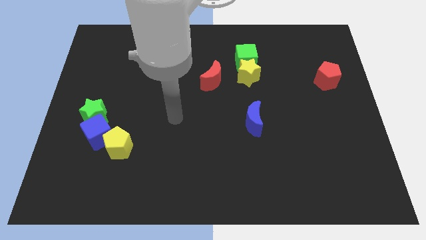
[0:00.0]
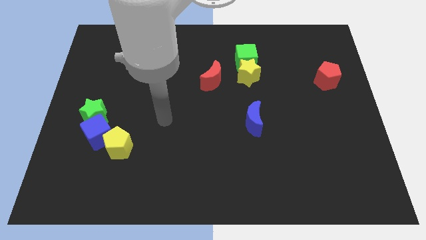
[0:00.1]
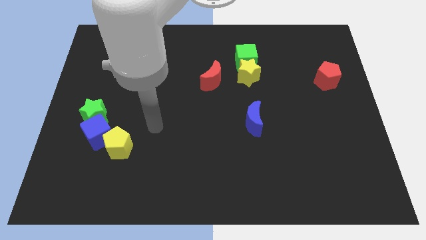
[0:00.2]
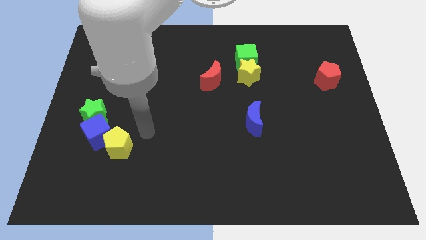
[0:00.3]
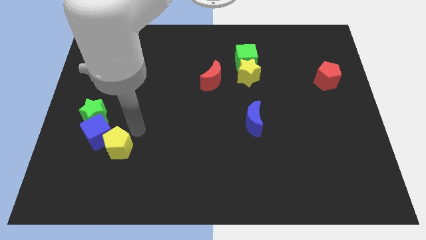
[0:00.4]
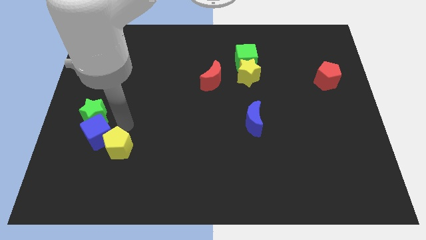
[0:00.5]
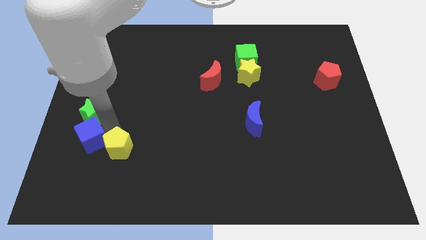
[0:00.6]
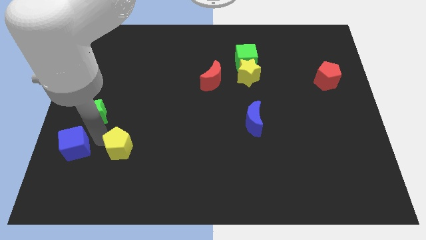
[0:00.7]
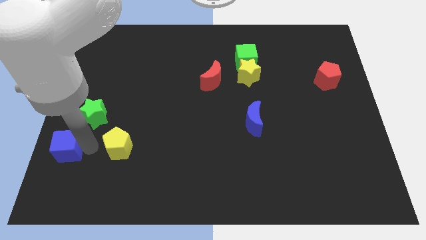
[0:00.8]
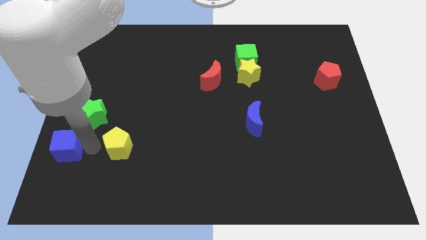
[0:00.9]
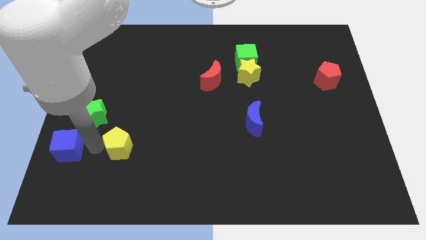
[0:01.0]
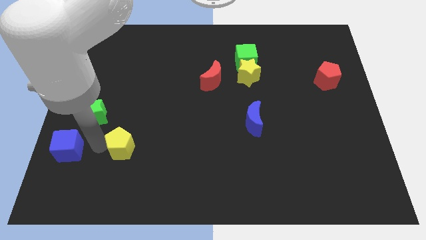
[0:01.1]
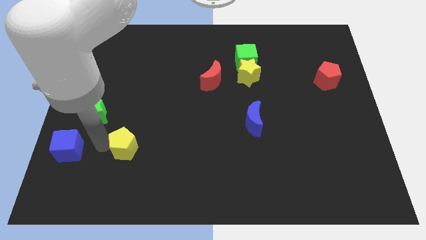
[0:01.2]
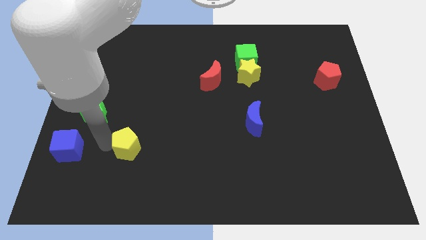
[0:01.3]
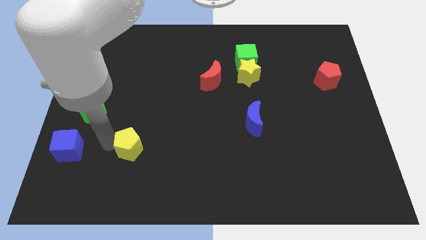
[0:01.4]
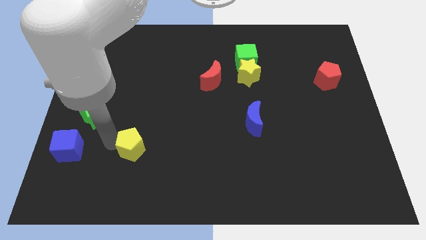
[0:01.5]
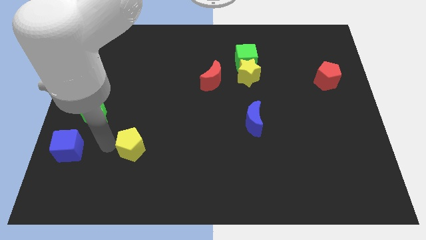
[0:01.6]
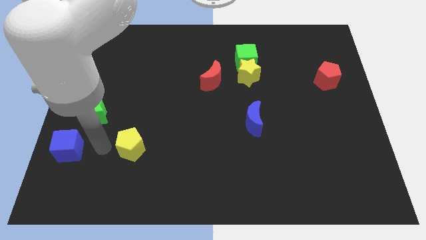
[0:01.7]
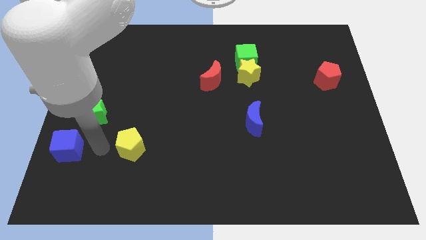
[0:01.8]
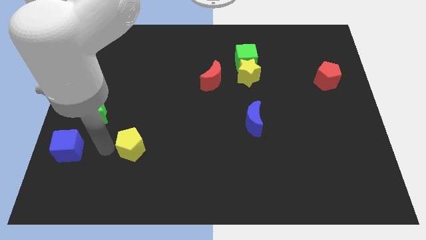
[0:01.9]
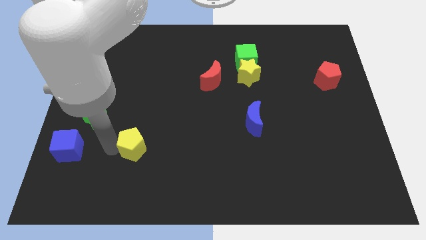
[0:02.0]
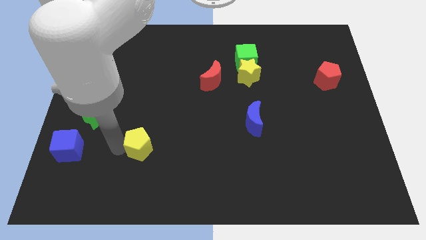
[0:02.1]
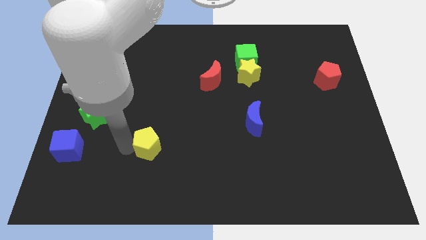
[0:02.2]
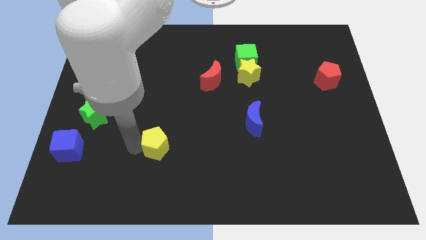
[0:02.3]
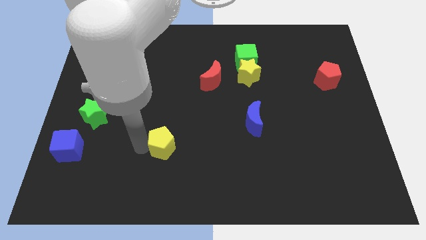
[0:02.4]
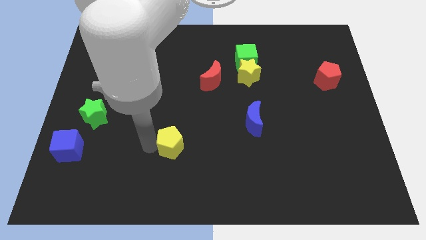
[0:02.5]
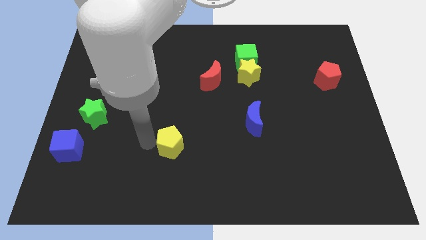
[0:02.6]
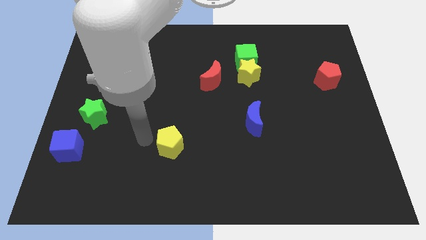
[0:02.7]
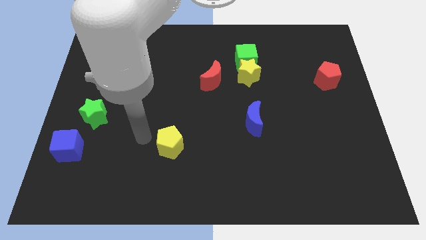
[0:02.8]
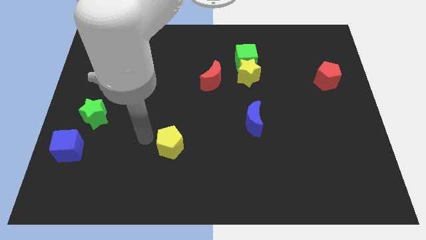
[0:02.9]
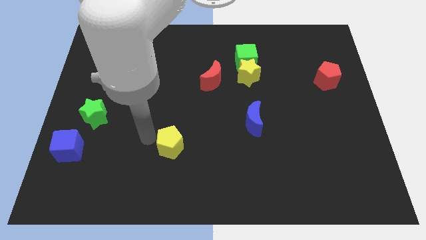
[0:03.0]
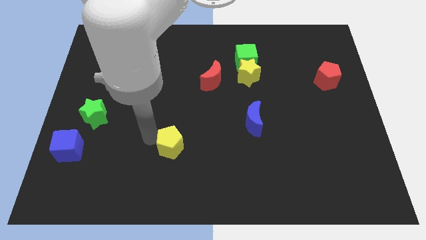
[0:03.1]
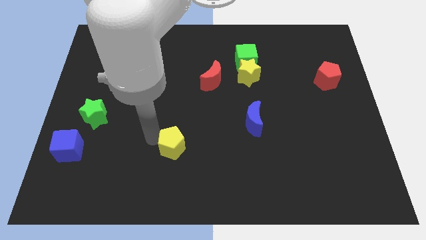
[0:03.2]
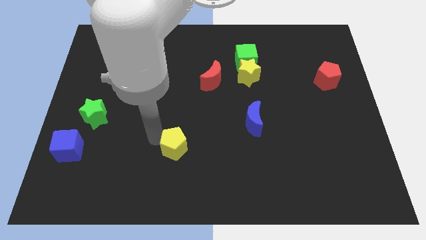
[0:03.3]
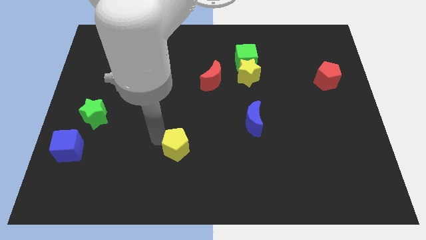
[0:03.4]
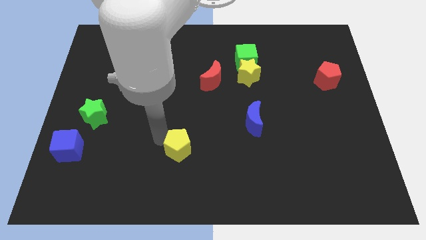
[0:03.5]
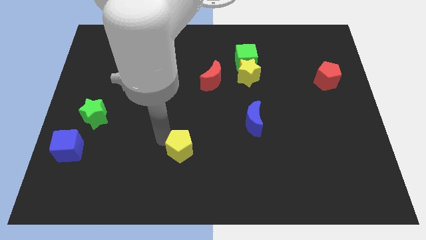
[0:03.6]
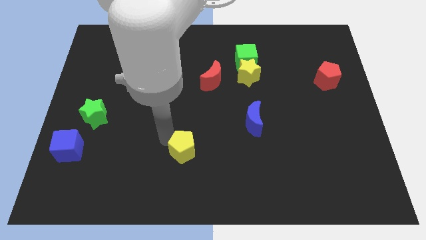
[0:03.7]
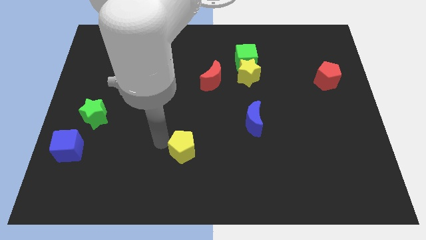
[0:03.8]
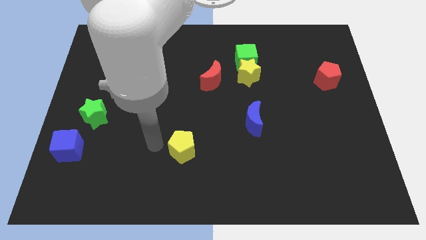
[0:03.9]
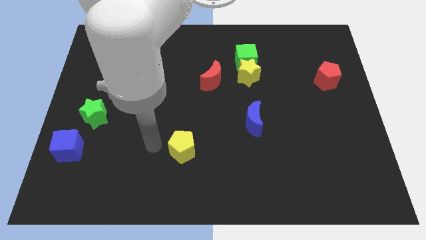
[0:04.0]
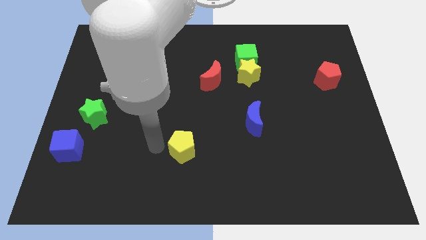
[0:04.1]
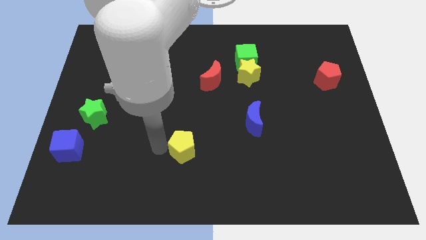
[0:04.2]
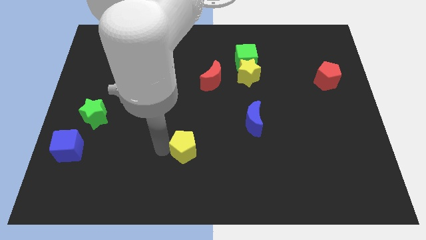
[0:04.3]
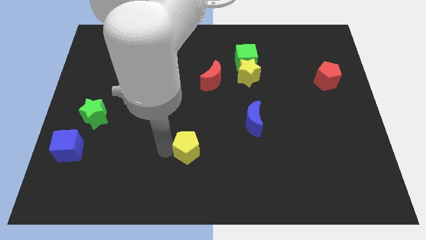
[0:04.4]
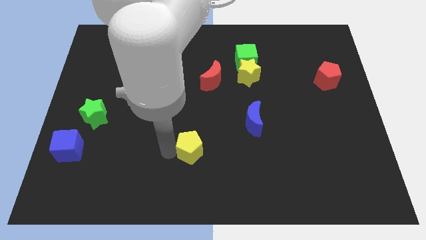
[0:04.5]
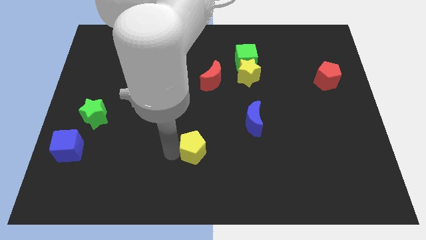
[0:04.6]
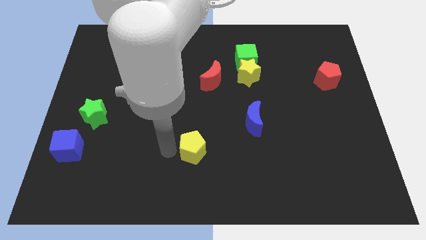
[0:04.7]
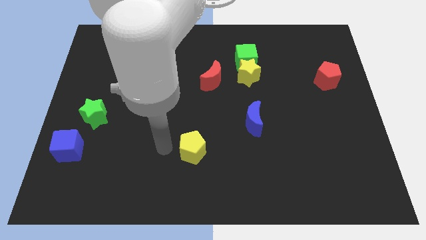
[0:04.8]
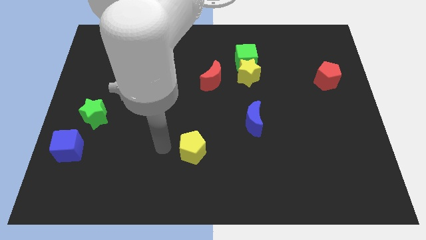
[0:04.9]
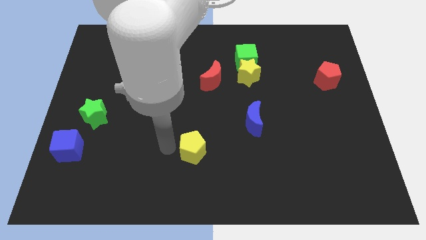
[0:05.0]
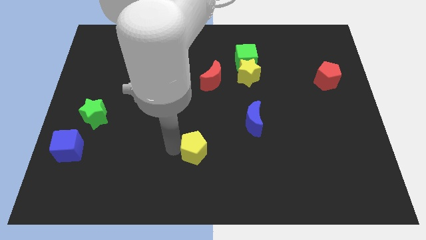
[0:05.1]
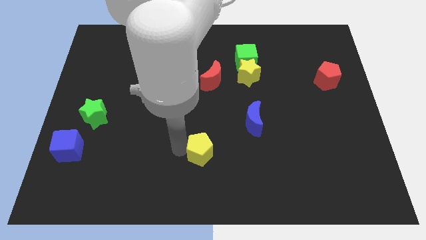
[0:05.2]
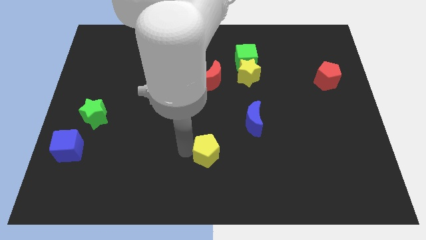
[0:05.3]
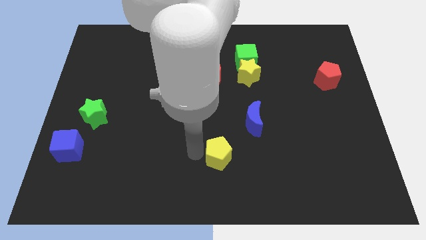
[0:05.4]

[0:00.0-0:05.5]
move the yellow pentagon right

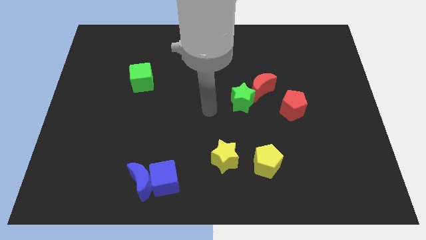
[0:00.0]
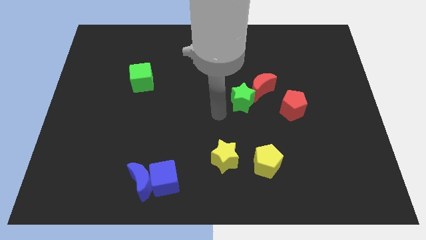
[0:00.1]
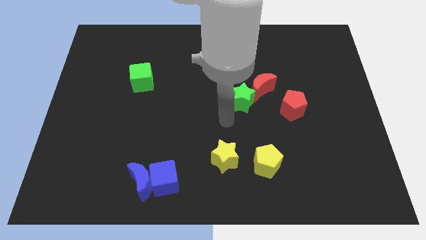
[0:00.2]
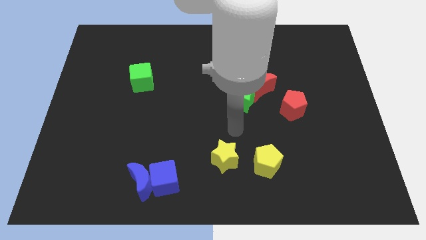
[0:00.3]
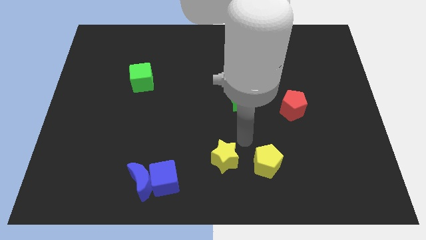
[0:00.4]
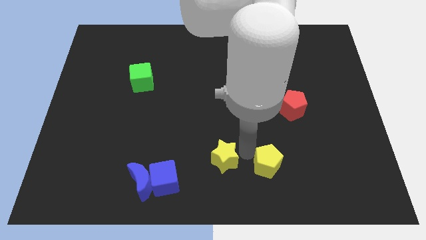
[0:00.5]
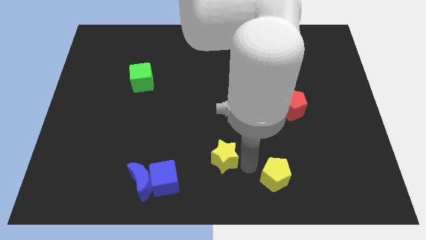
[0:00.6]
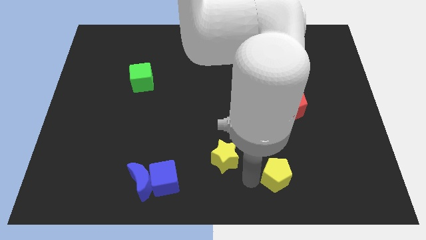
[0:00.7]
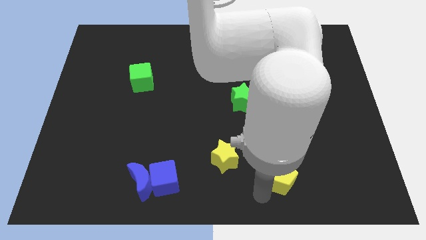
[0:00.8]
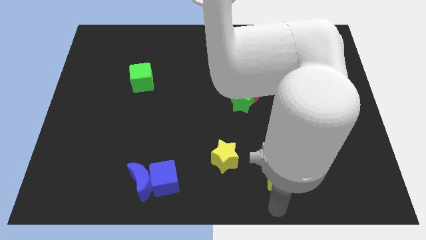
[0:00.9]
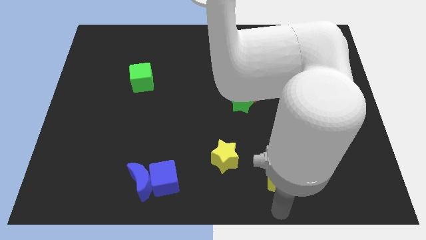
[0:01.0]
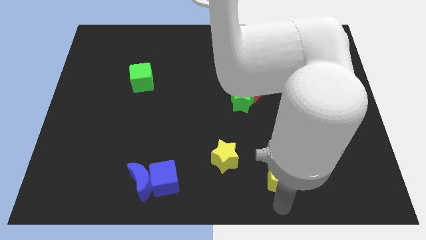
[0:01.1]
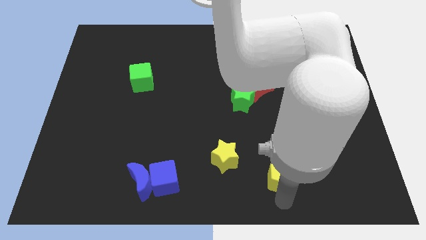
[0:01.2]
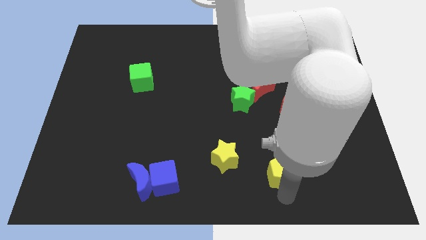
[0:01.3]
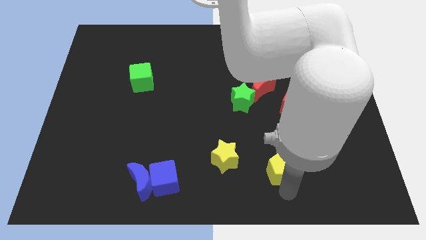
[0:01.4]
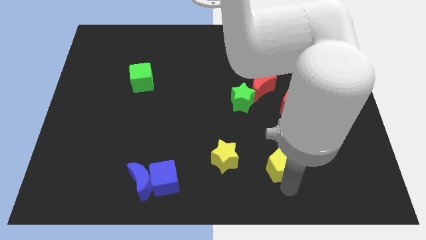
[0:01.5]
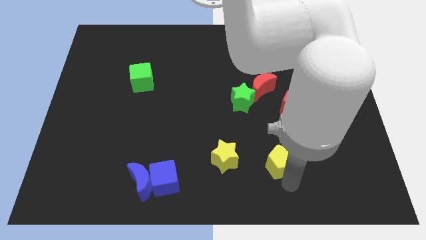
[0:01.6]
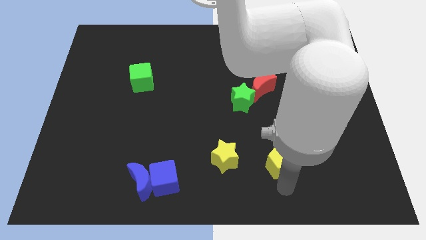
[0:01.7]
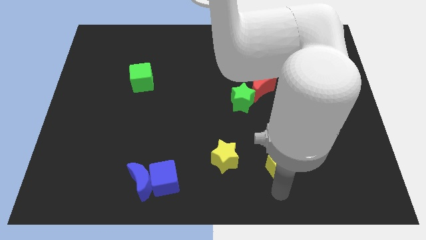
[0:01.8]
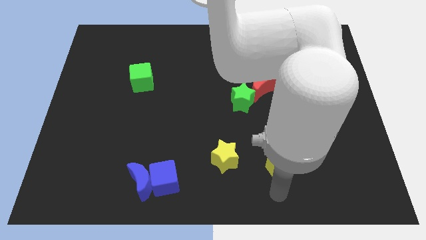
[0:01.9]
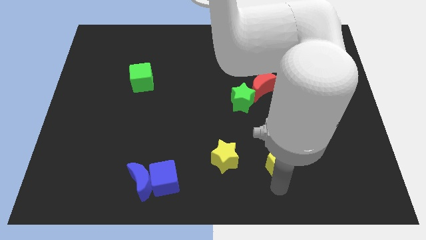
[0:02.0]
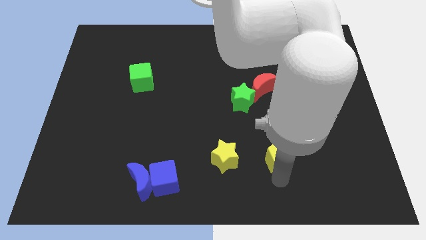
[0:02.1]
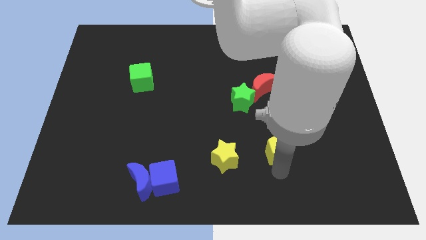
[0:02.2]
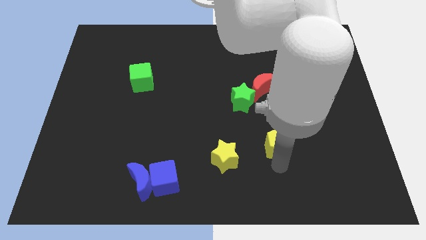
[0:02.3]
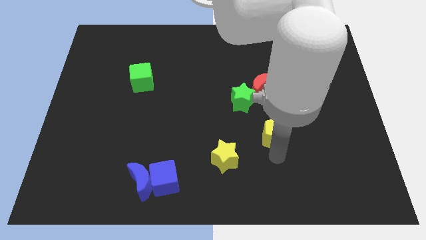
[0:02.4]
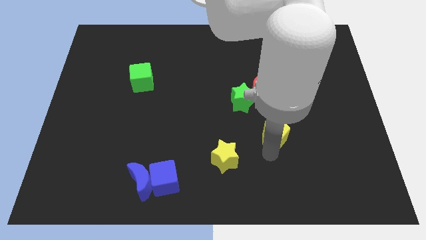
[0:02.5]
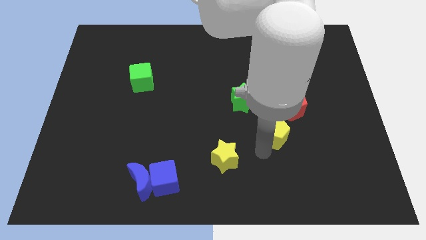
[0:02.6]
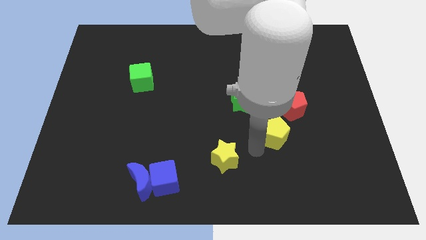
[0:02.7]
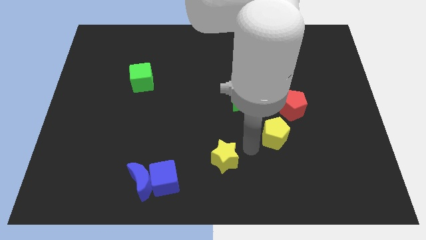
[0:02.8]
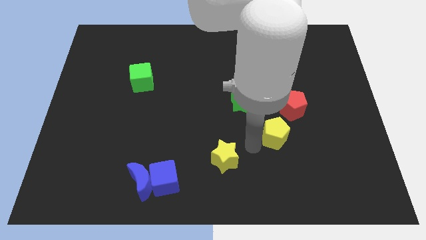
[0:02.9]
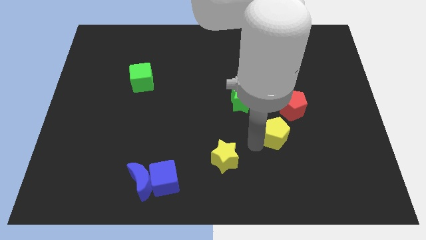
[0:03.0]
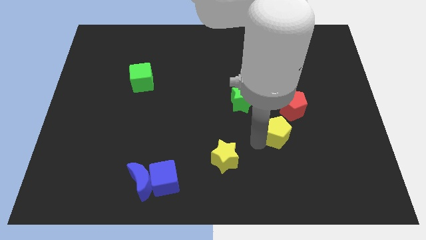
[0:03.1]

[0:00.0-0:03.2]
slightly slide the yellow pentagon up and to the right
